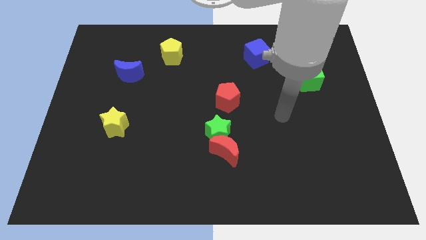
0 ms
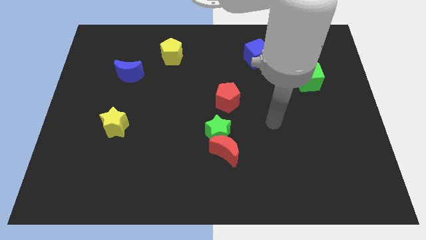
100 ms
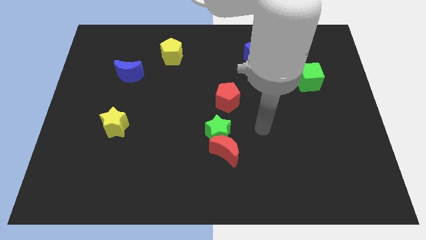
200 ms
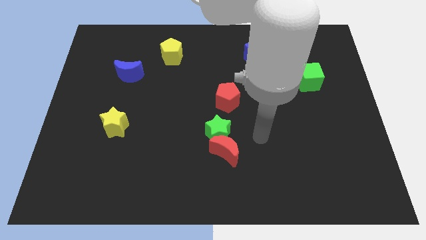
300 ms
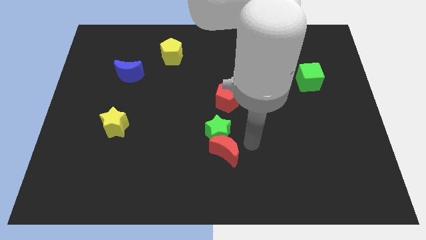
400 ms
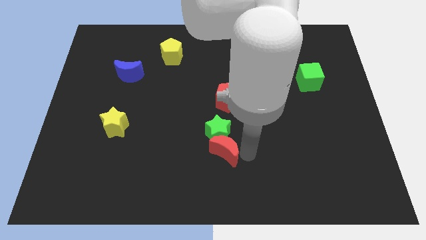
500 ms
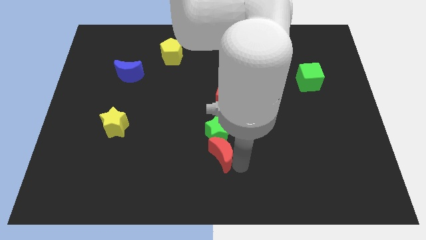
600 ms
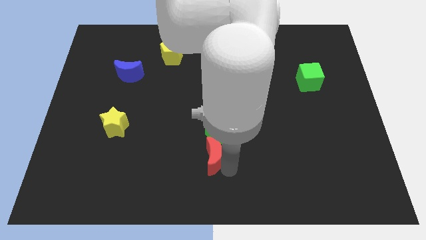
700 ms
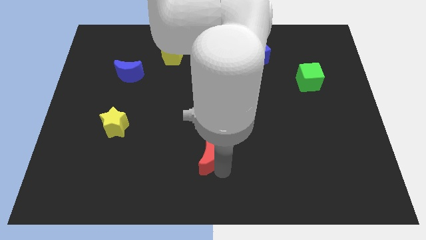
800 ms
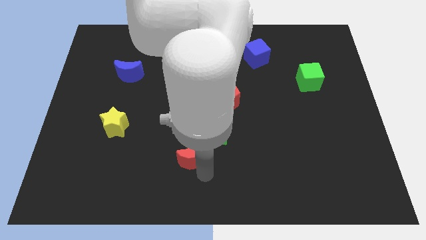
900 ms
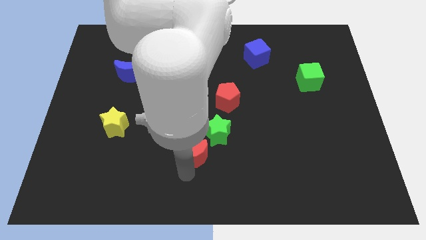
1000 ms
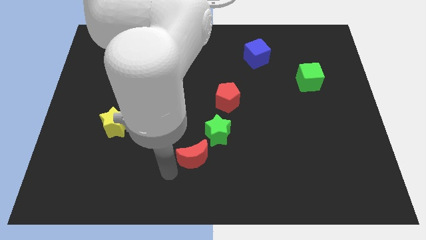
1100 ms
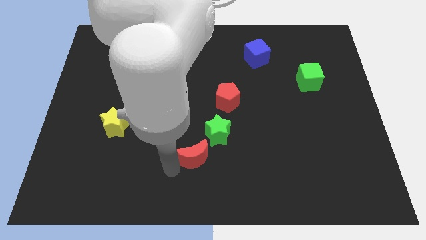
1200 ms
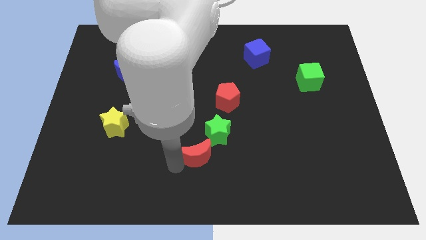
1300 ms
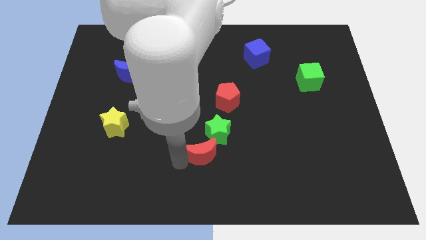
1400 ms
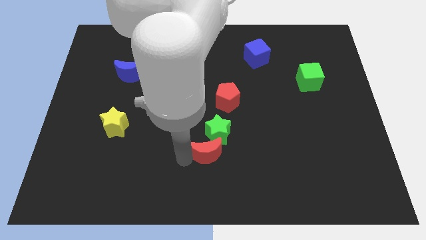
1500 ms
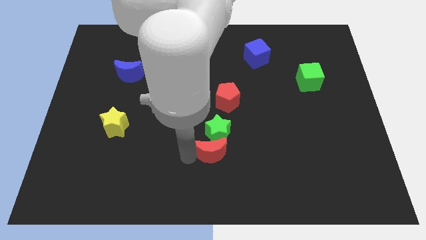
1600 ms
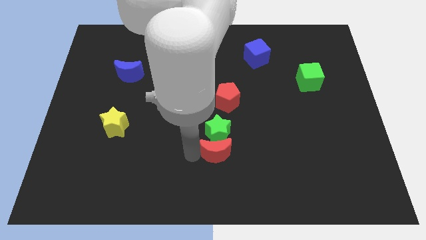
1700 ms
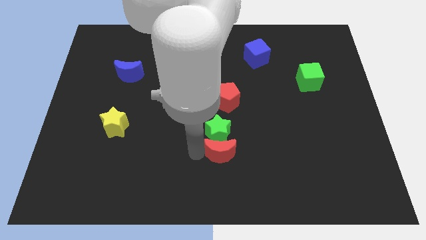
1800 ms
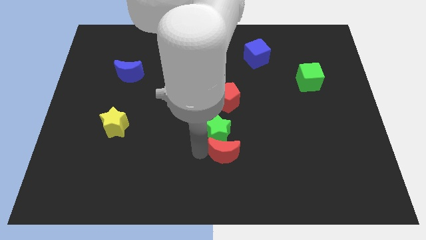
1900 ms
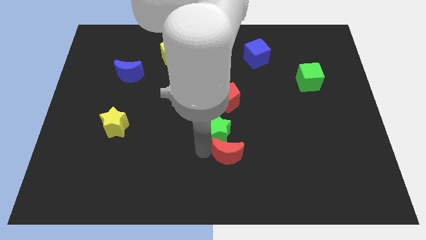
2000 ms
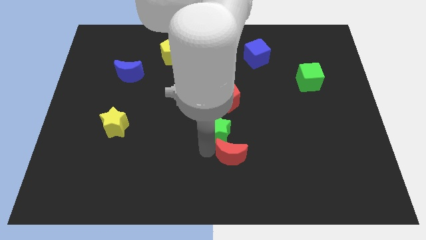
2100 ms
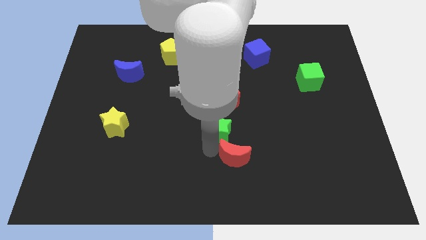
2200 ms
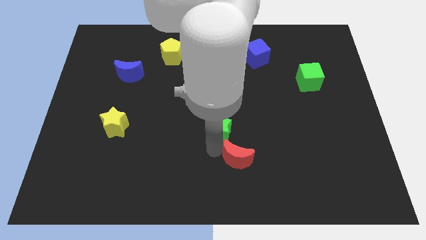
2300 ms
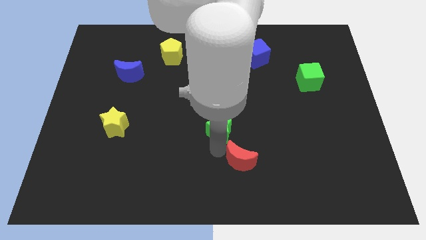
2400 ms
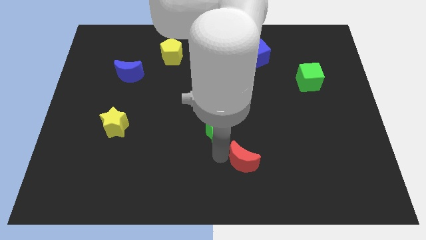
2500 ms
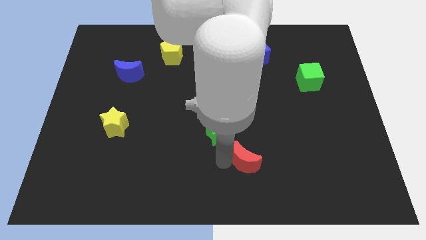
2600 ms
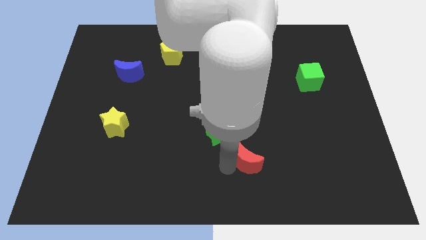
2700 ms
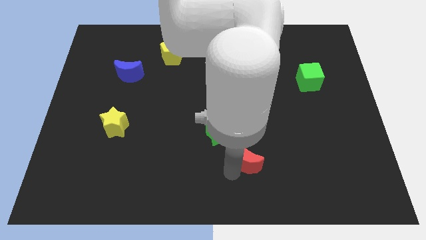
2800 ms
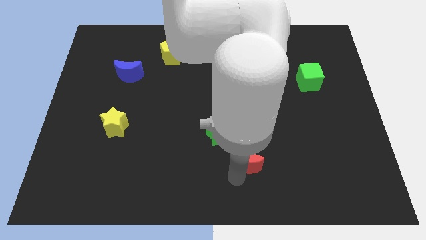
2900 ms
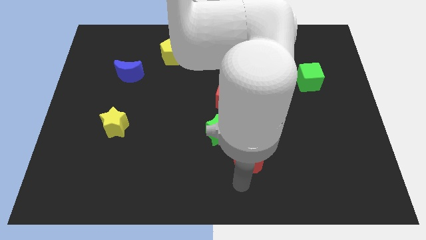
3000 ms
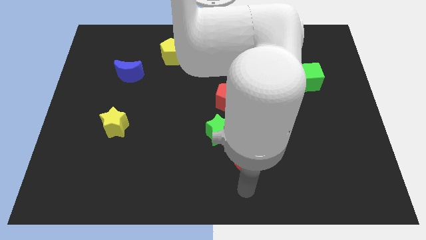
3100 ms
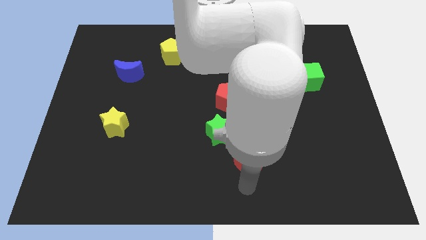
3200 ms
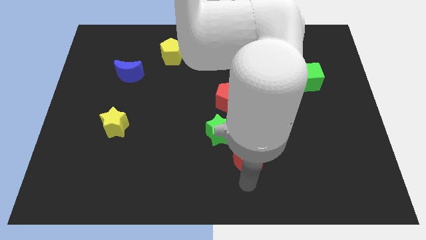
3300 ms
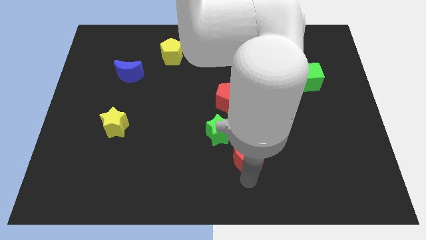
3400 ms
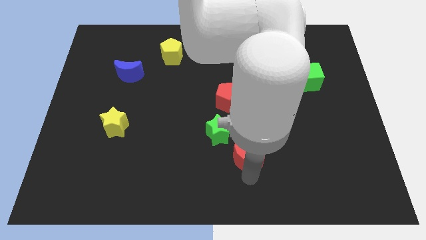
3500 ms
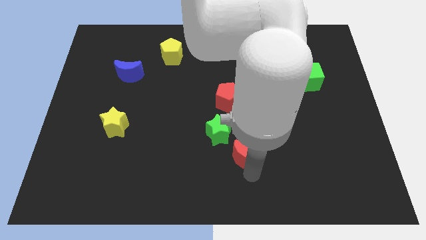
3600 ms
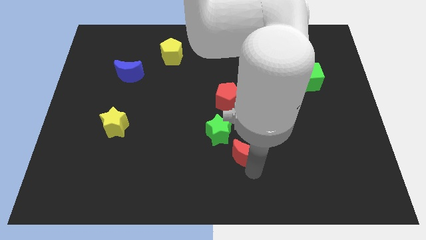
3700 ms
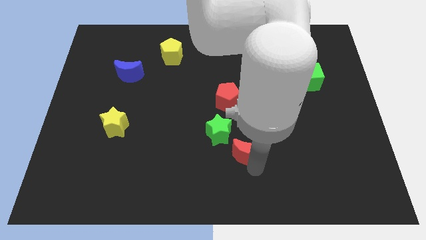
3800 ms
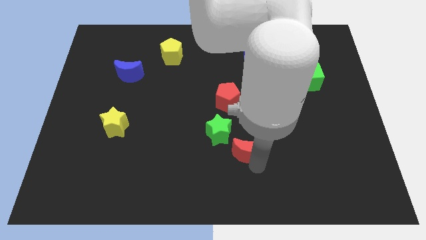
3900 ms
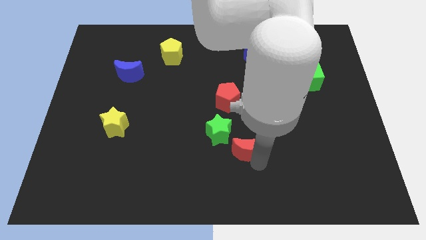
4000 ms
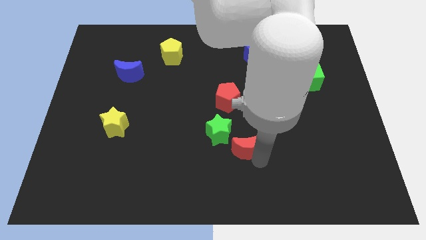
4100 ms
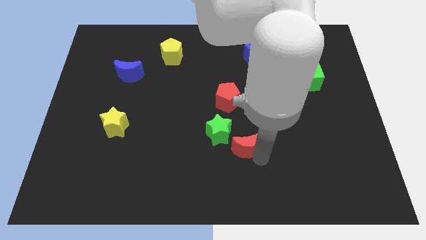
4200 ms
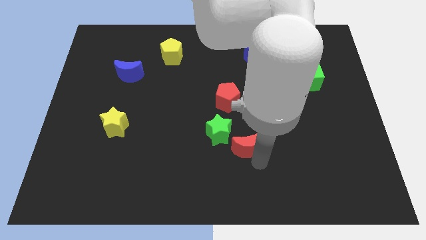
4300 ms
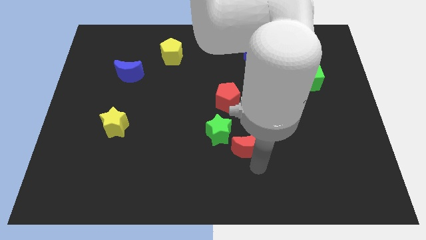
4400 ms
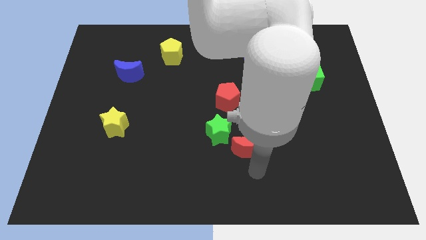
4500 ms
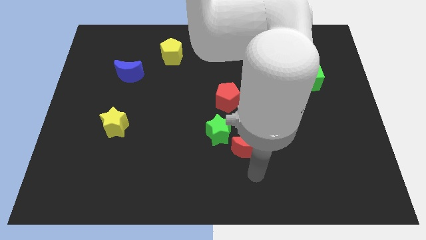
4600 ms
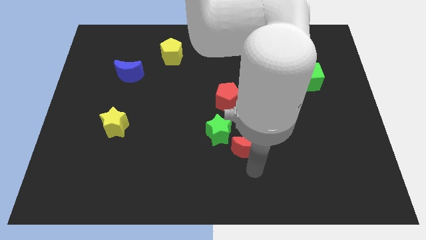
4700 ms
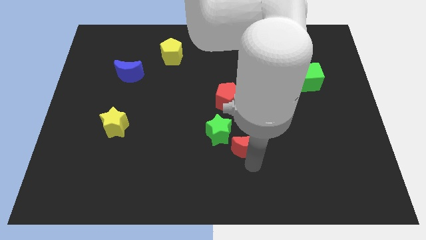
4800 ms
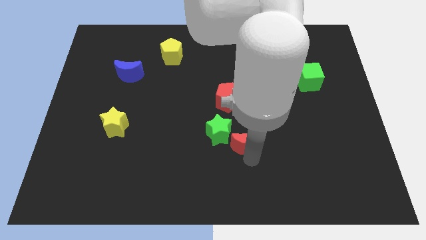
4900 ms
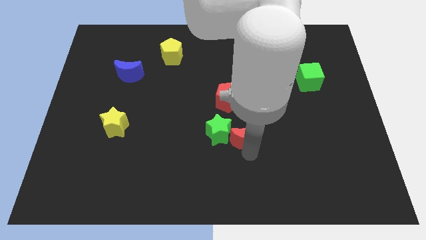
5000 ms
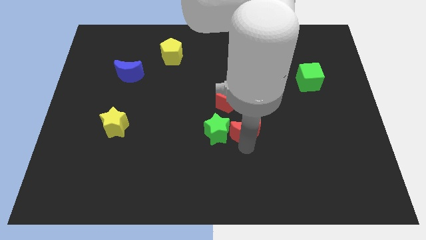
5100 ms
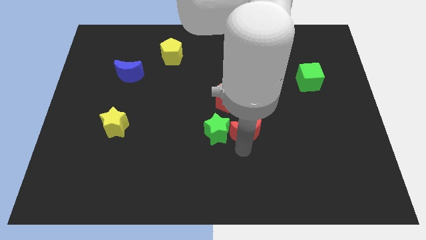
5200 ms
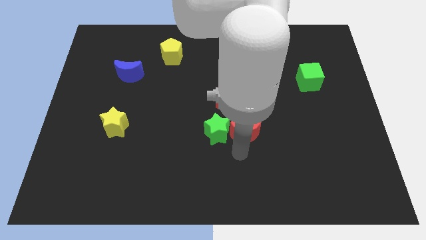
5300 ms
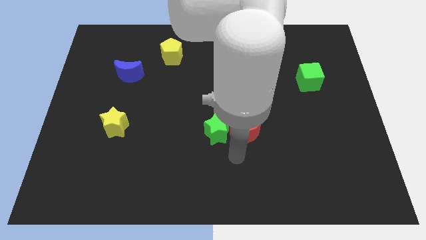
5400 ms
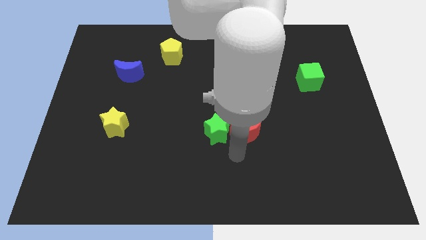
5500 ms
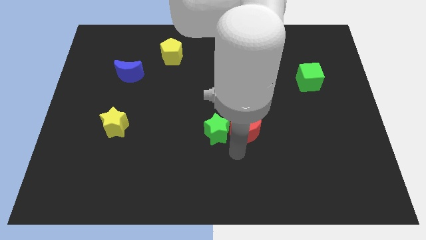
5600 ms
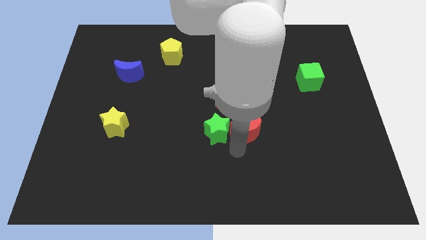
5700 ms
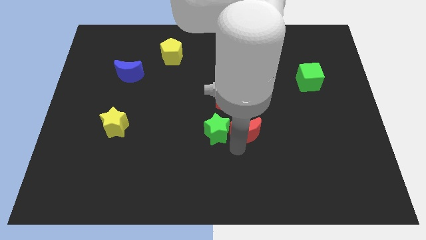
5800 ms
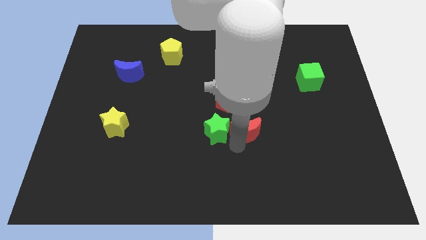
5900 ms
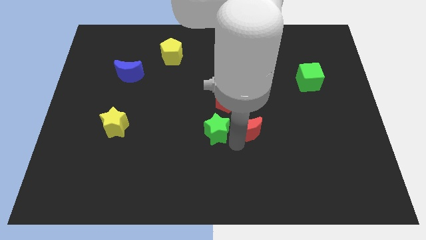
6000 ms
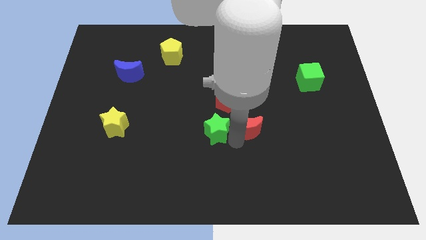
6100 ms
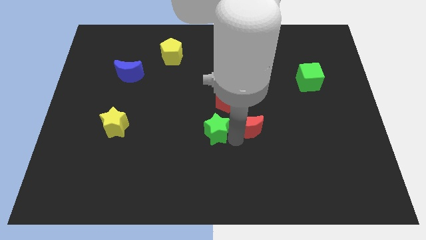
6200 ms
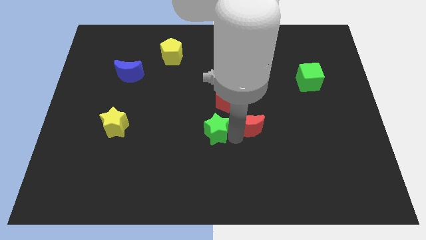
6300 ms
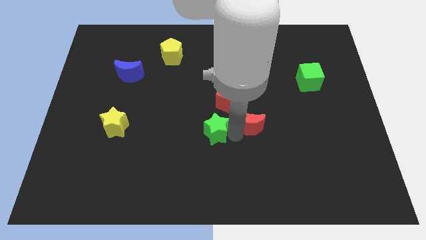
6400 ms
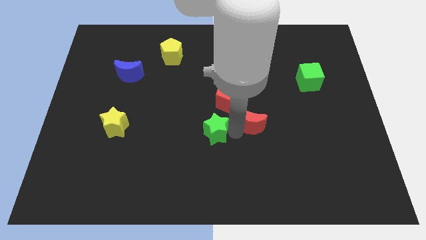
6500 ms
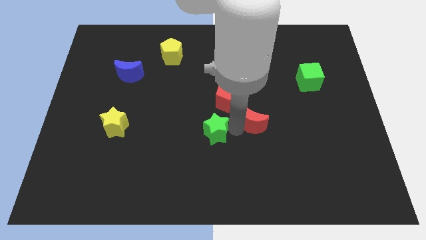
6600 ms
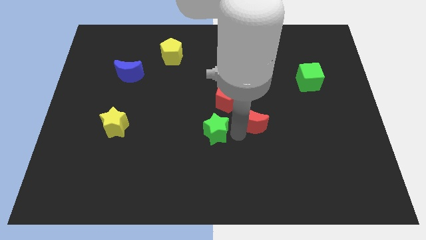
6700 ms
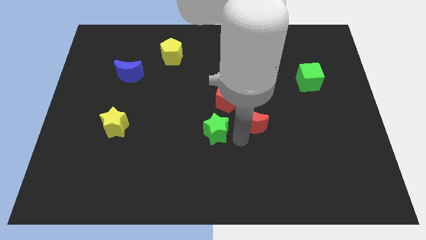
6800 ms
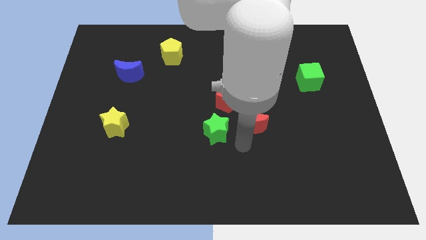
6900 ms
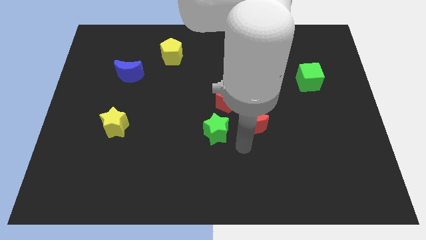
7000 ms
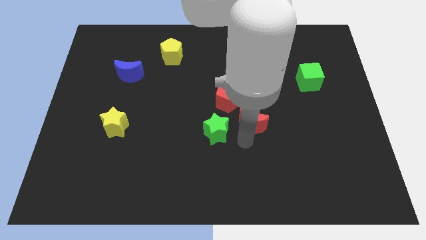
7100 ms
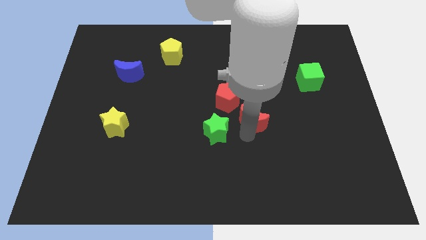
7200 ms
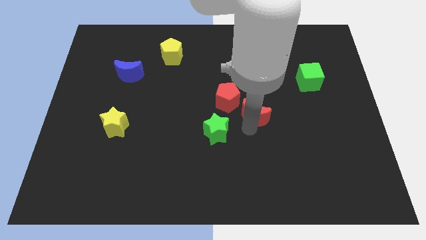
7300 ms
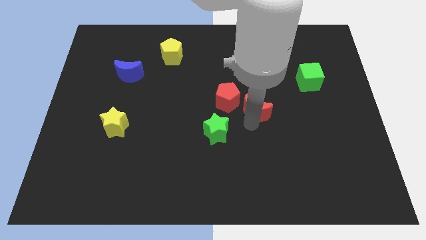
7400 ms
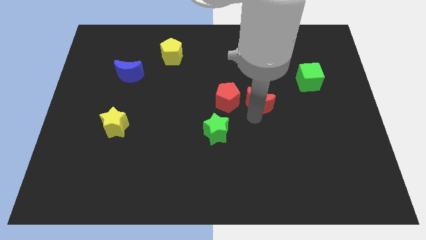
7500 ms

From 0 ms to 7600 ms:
move the red moon to the bottom of the blue cube
